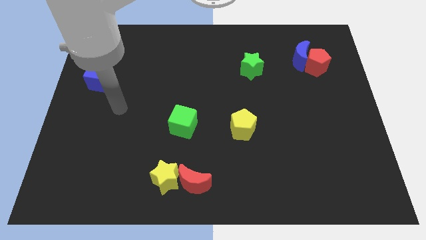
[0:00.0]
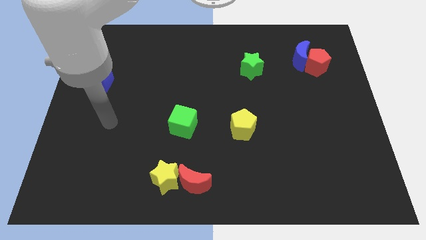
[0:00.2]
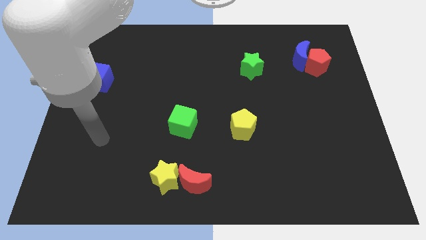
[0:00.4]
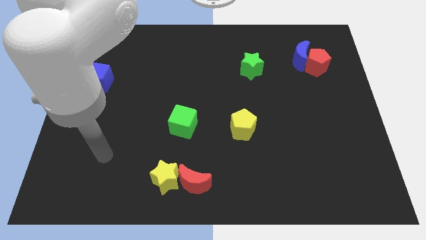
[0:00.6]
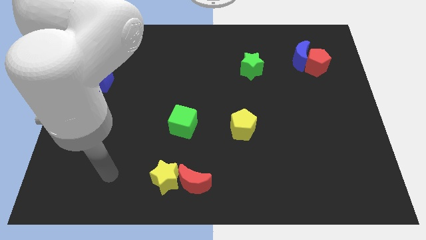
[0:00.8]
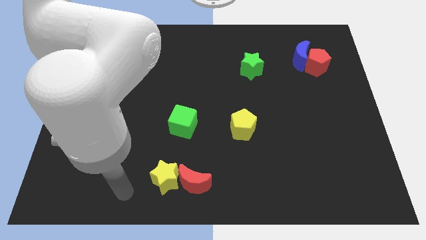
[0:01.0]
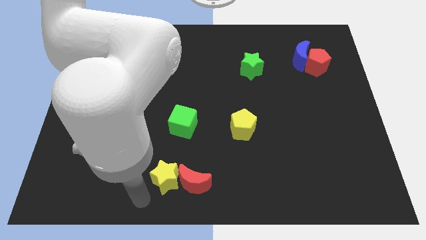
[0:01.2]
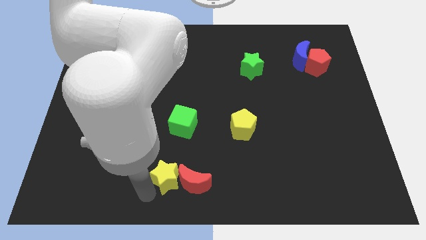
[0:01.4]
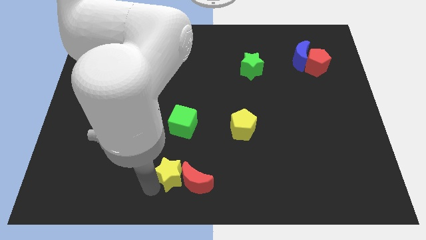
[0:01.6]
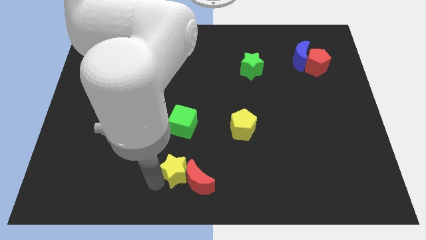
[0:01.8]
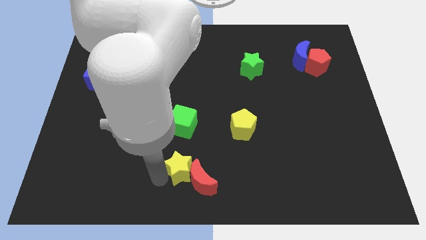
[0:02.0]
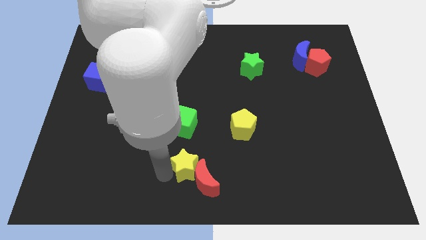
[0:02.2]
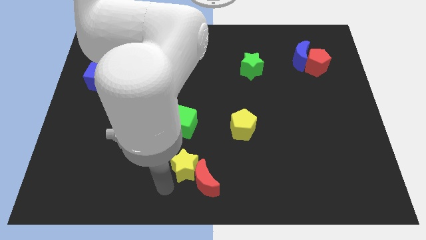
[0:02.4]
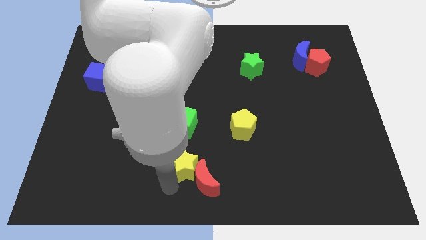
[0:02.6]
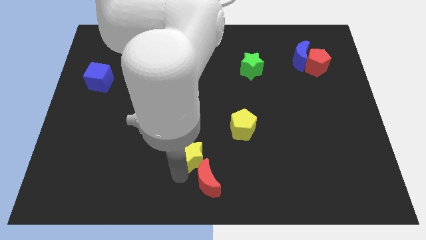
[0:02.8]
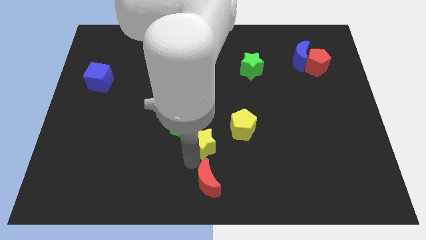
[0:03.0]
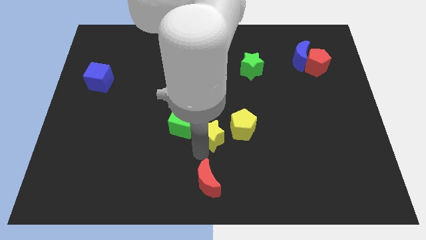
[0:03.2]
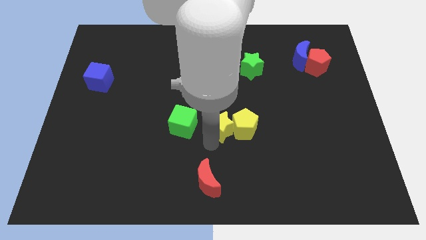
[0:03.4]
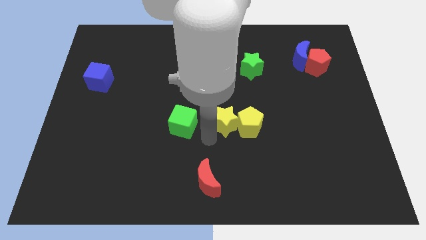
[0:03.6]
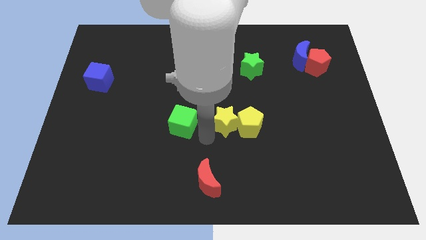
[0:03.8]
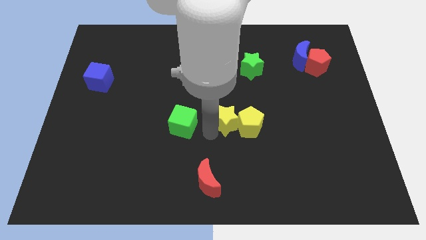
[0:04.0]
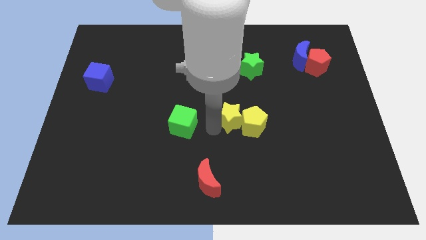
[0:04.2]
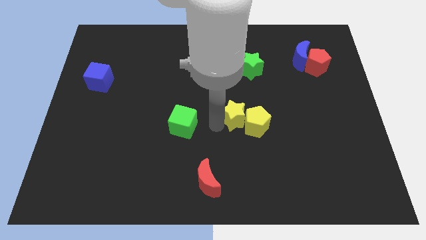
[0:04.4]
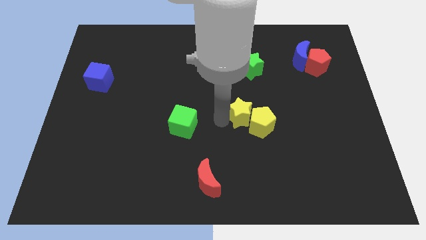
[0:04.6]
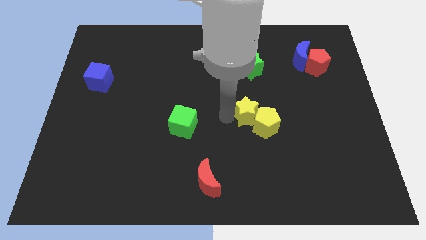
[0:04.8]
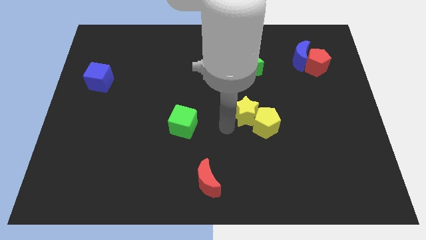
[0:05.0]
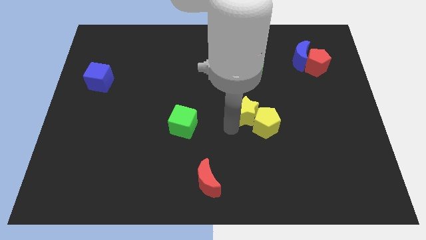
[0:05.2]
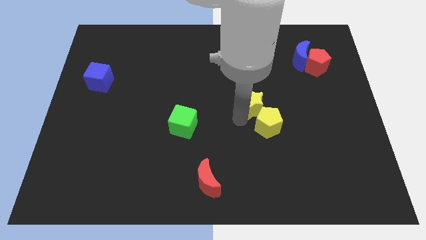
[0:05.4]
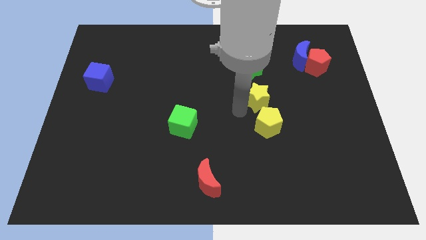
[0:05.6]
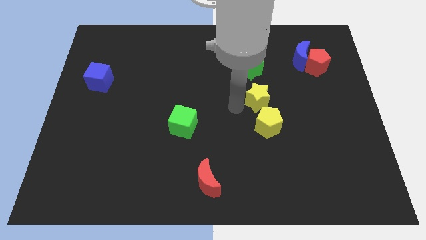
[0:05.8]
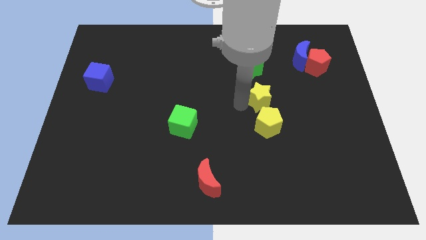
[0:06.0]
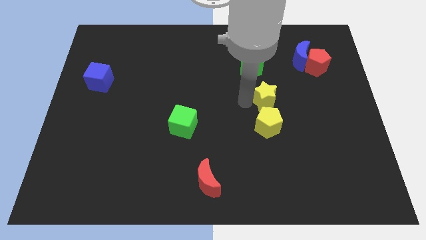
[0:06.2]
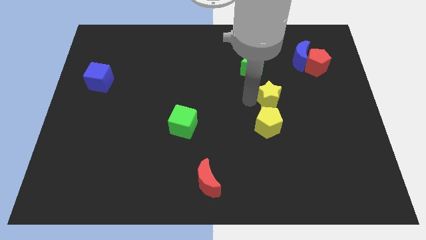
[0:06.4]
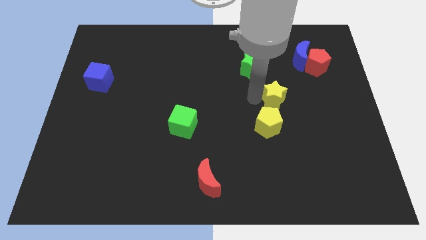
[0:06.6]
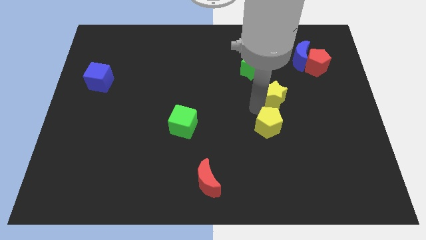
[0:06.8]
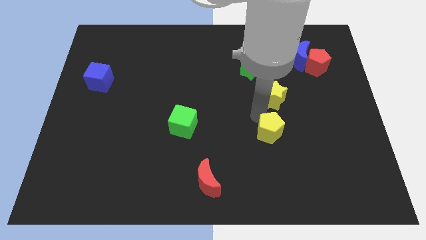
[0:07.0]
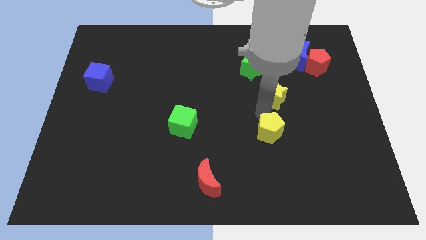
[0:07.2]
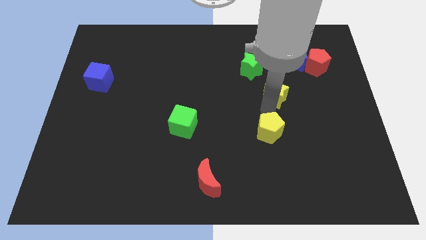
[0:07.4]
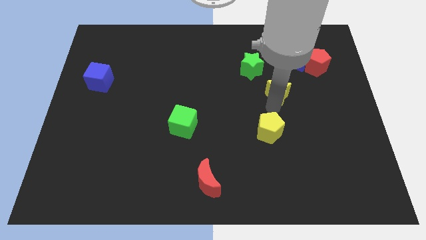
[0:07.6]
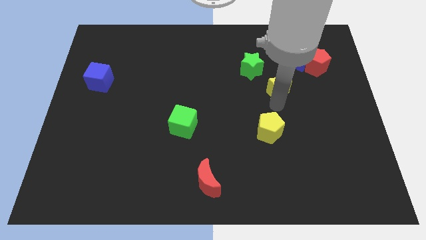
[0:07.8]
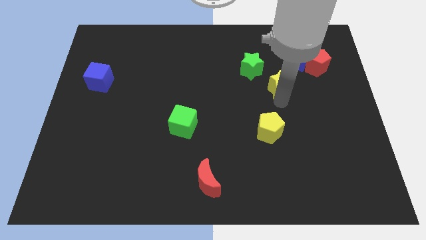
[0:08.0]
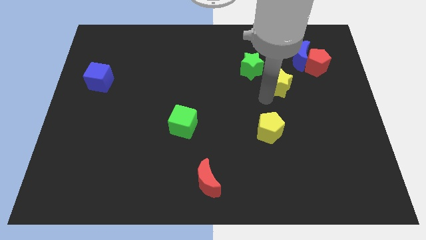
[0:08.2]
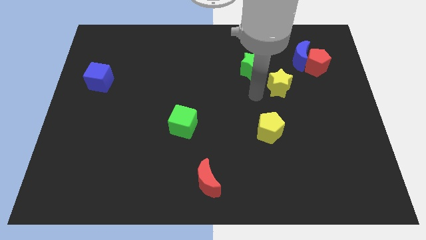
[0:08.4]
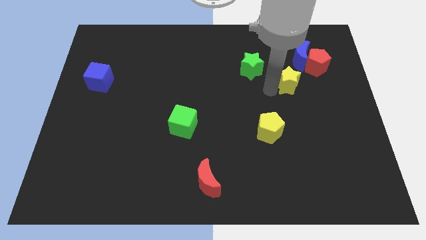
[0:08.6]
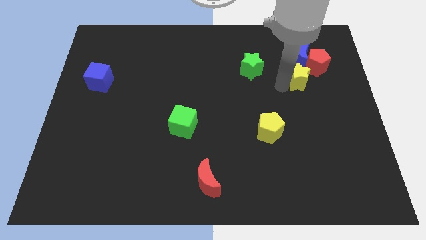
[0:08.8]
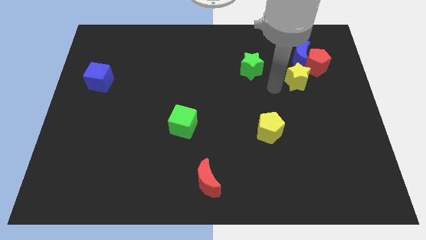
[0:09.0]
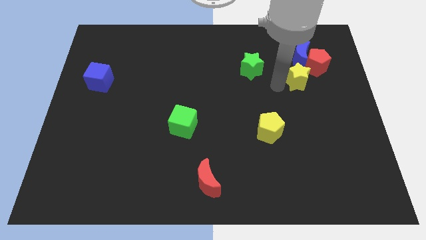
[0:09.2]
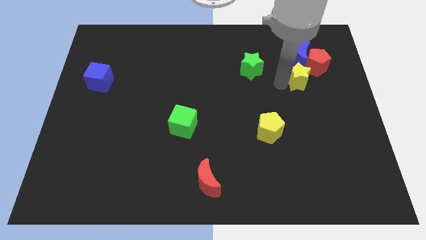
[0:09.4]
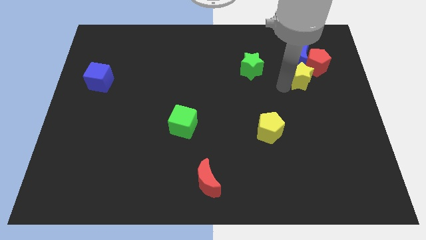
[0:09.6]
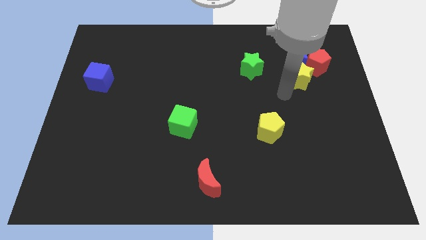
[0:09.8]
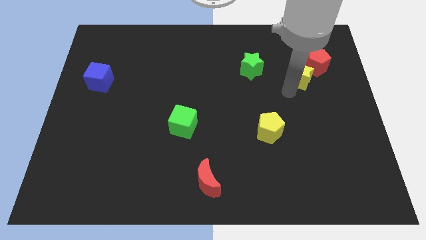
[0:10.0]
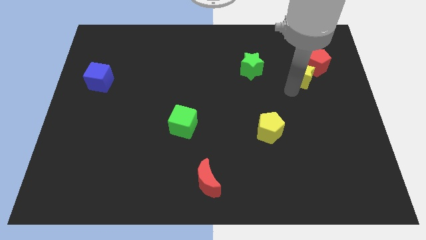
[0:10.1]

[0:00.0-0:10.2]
push the yellow star close to the red pentagon

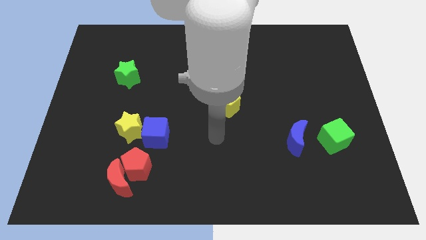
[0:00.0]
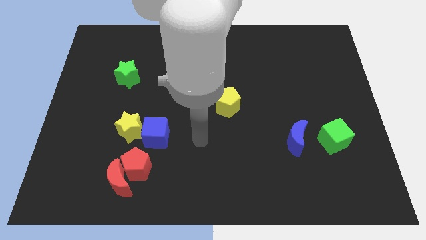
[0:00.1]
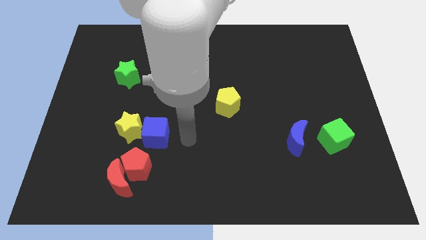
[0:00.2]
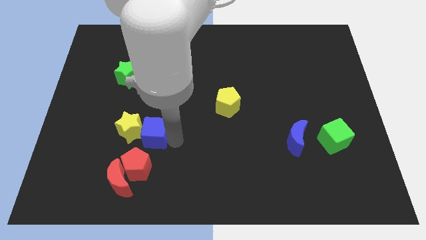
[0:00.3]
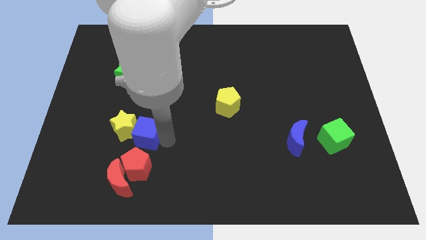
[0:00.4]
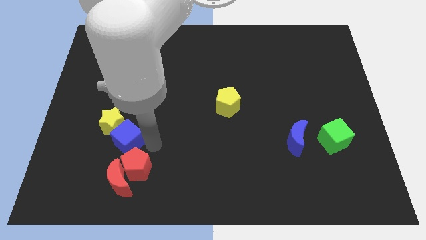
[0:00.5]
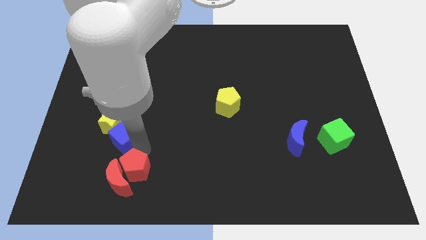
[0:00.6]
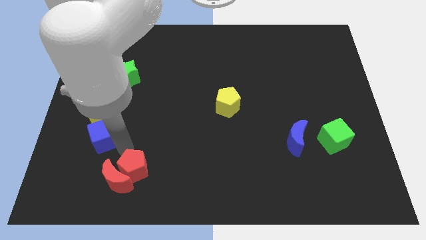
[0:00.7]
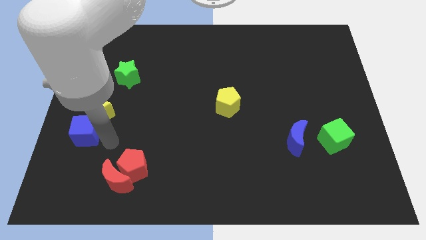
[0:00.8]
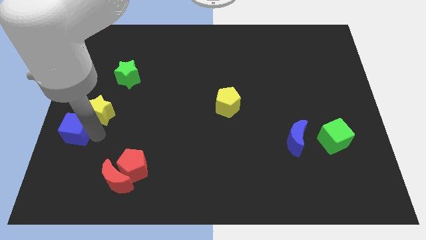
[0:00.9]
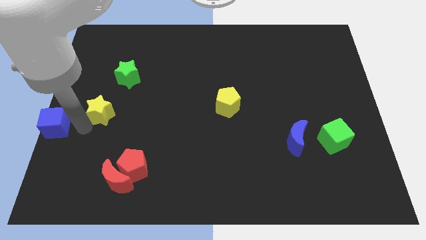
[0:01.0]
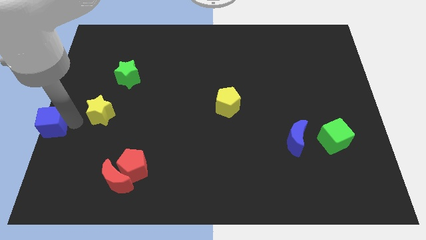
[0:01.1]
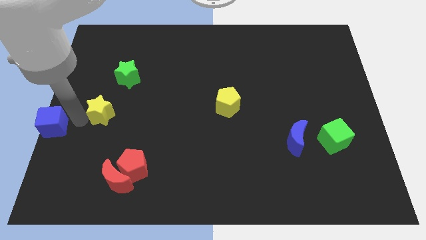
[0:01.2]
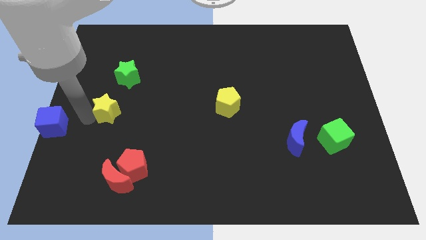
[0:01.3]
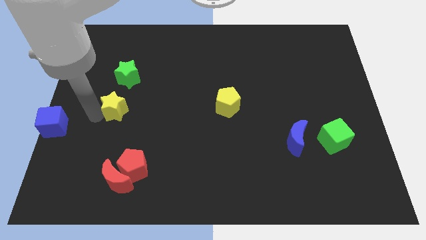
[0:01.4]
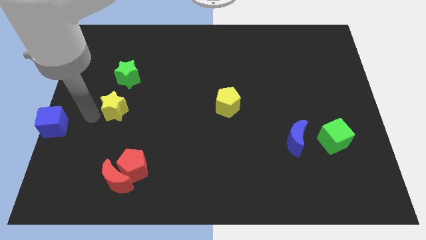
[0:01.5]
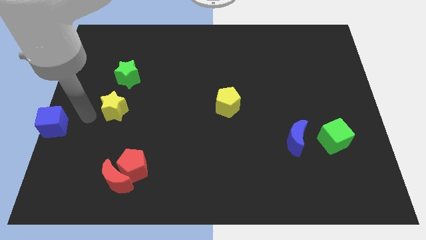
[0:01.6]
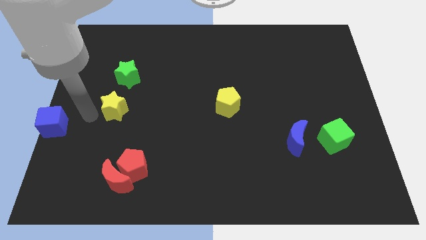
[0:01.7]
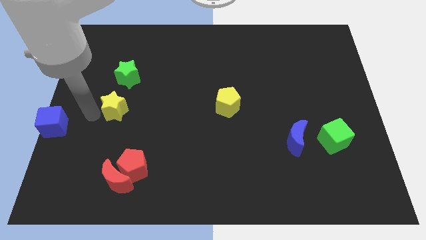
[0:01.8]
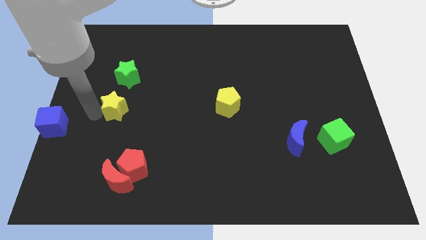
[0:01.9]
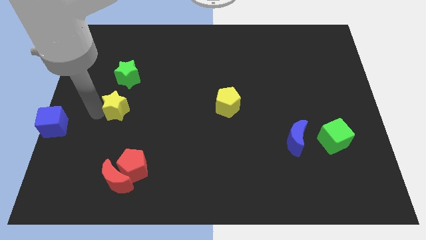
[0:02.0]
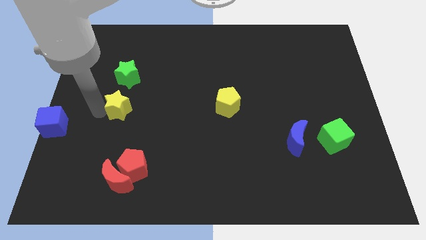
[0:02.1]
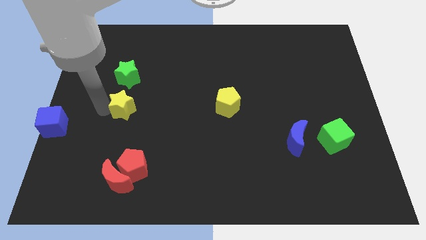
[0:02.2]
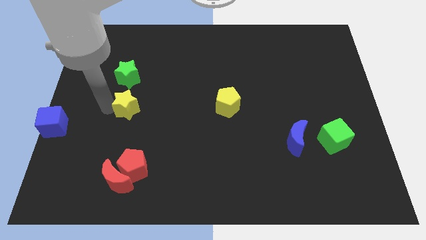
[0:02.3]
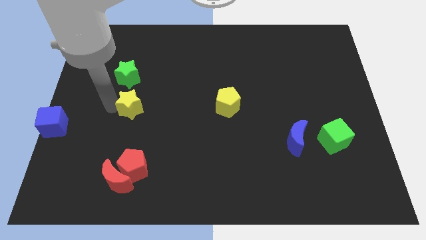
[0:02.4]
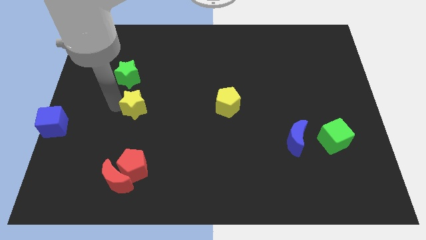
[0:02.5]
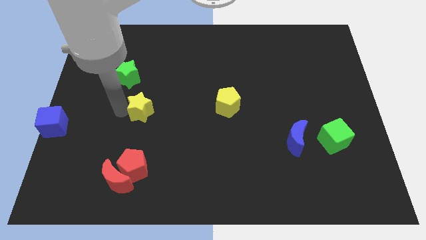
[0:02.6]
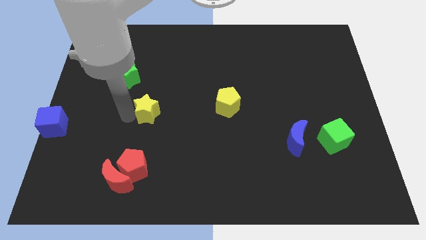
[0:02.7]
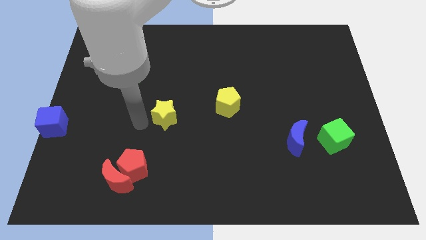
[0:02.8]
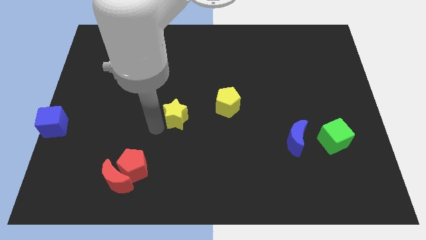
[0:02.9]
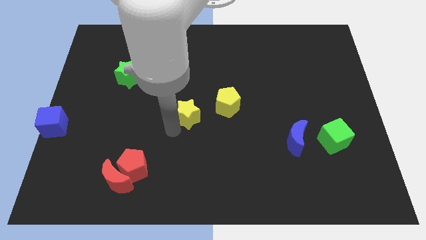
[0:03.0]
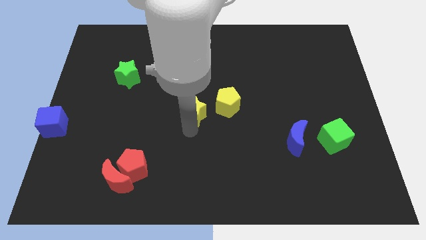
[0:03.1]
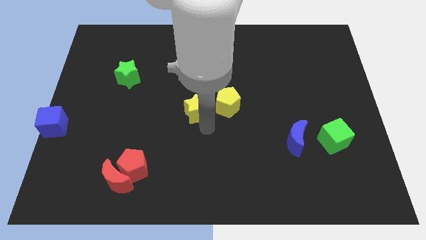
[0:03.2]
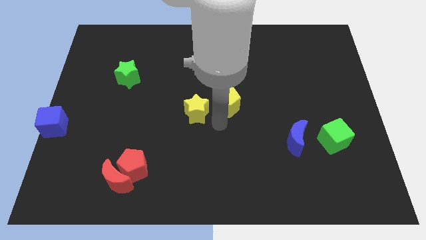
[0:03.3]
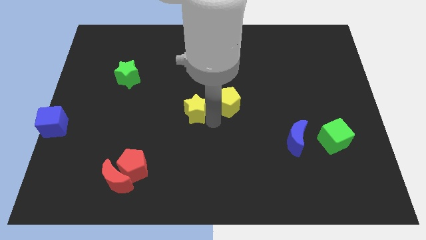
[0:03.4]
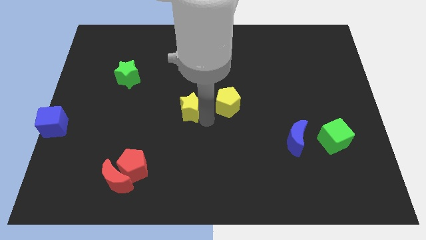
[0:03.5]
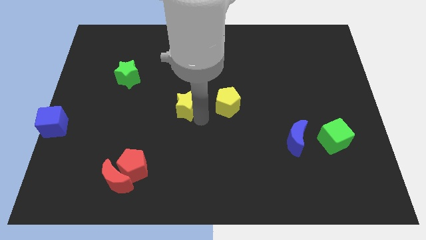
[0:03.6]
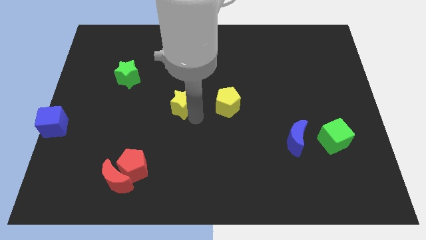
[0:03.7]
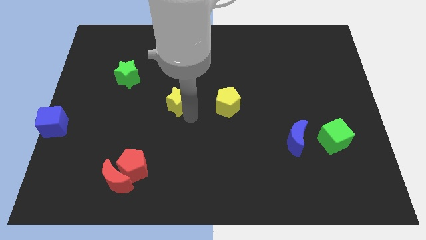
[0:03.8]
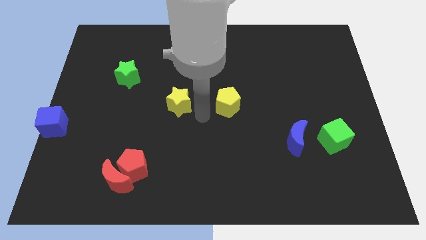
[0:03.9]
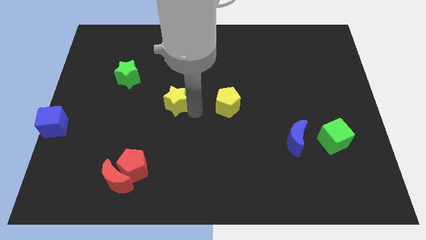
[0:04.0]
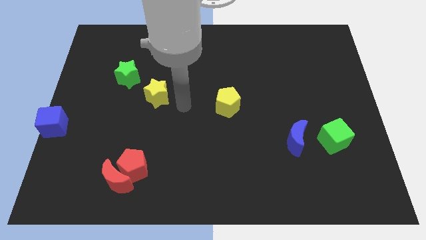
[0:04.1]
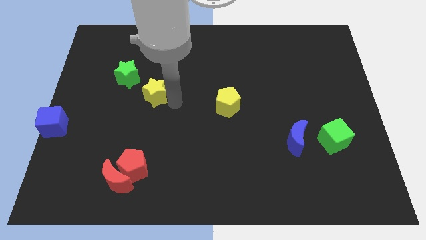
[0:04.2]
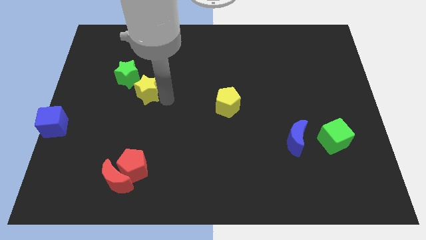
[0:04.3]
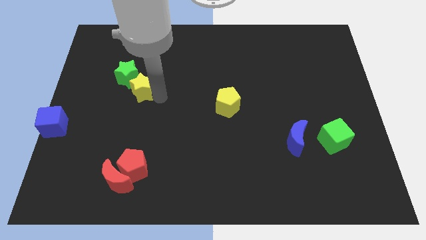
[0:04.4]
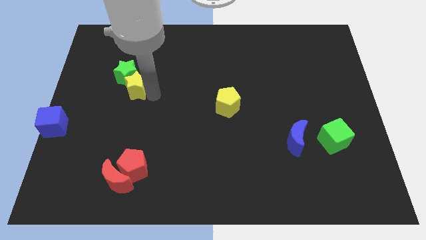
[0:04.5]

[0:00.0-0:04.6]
slide the yellow star towards the green star
